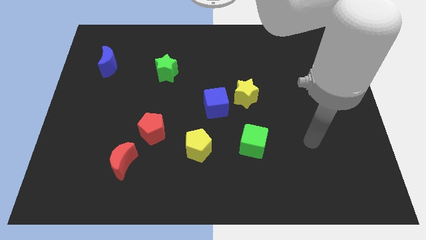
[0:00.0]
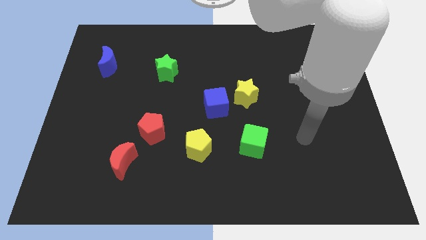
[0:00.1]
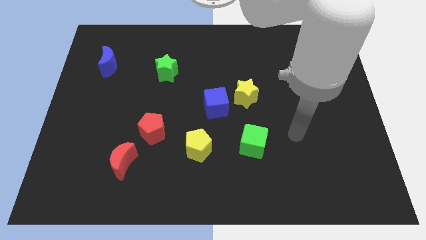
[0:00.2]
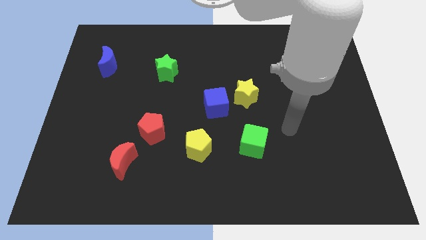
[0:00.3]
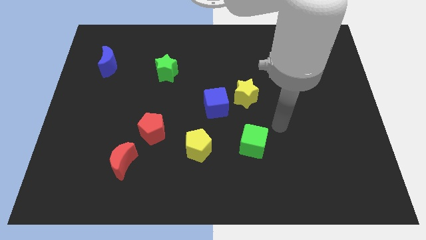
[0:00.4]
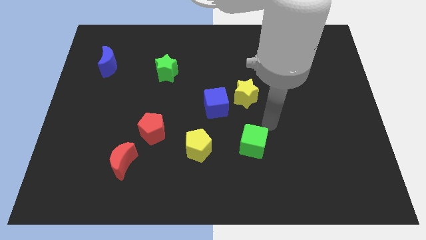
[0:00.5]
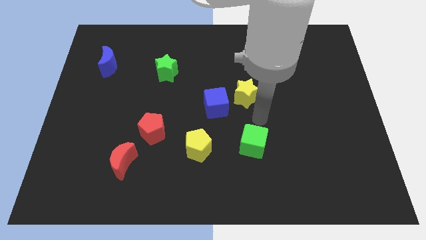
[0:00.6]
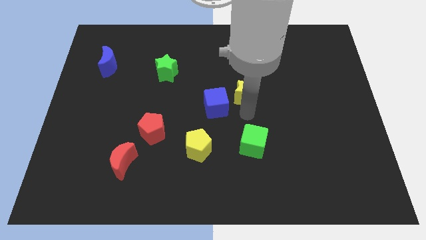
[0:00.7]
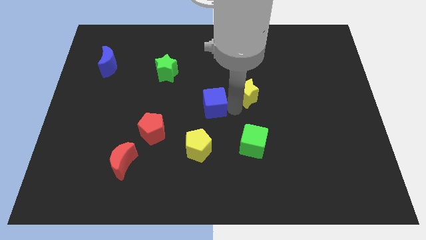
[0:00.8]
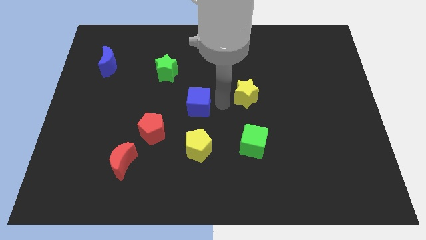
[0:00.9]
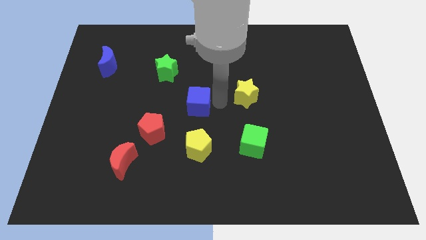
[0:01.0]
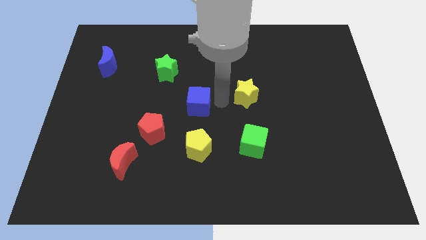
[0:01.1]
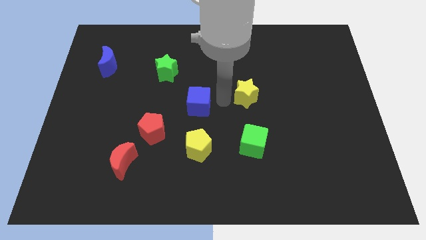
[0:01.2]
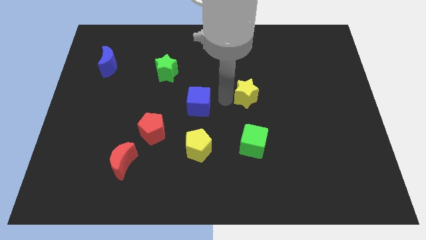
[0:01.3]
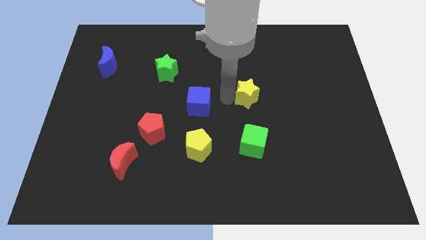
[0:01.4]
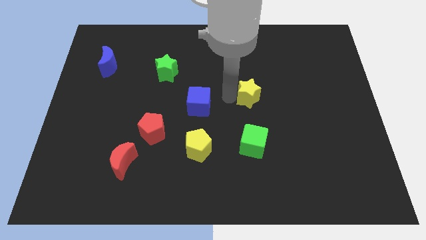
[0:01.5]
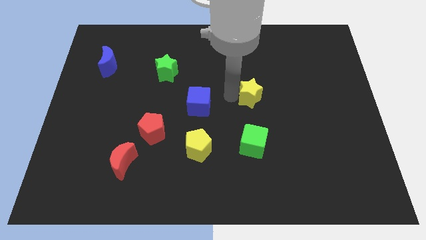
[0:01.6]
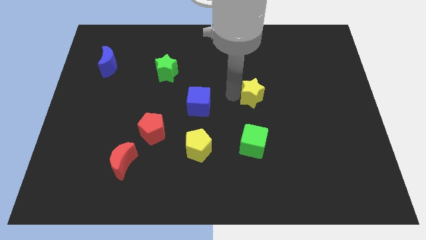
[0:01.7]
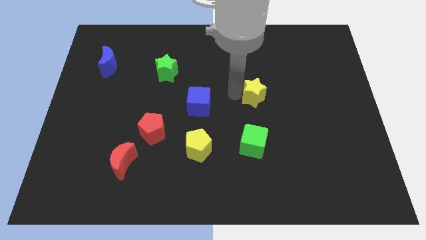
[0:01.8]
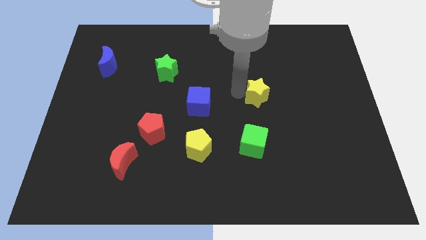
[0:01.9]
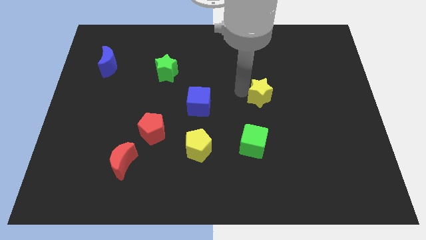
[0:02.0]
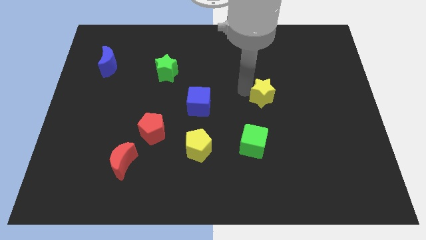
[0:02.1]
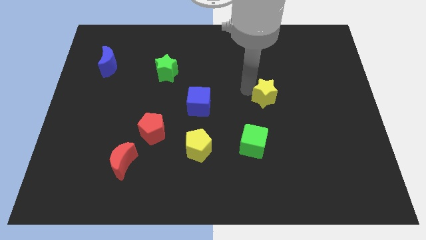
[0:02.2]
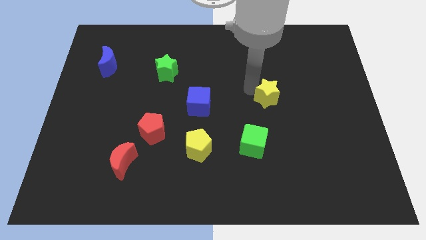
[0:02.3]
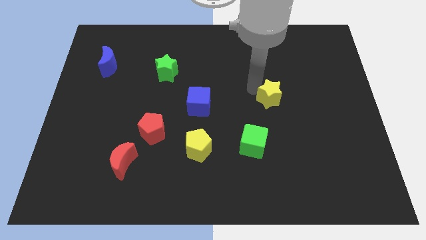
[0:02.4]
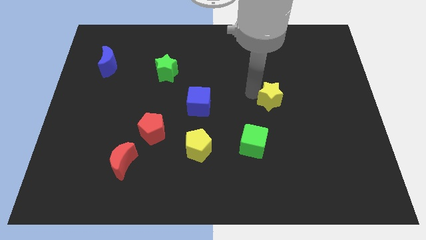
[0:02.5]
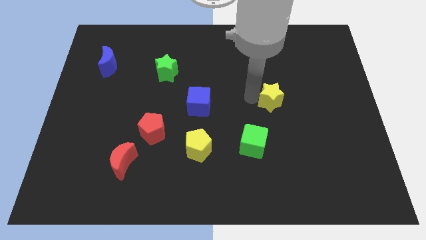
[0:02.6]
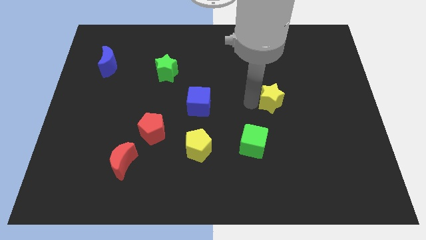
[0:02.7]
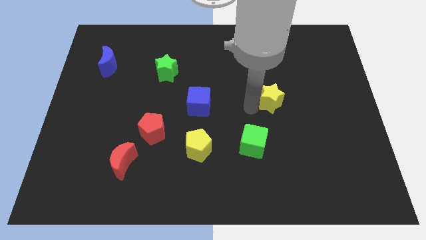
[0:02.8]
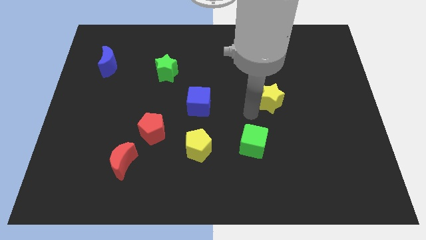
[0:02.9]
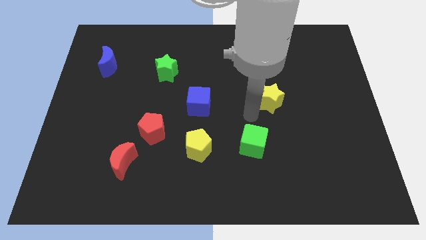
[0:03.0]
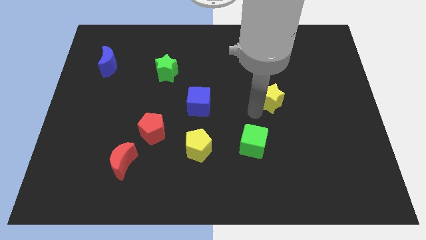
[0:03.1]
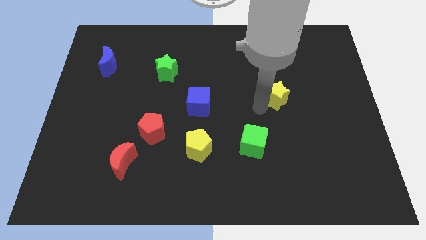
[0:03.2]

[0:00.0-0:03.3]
push the yellow star a little bit right

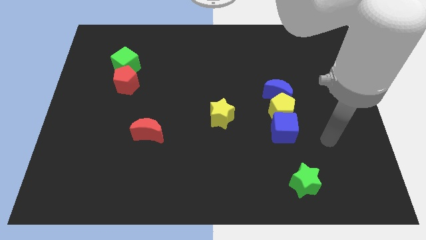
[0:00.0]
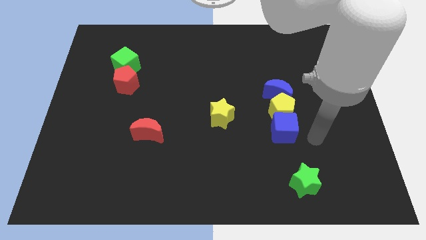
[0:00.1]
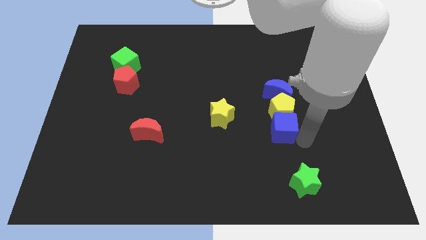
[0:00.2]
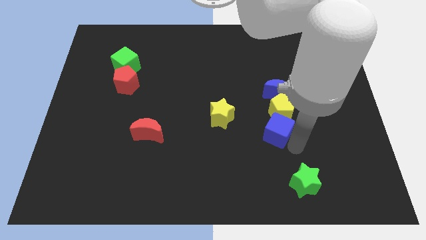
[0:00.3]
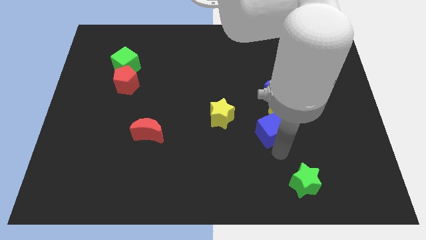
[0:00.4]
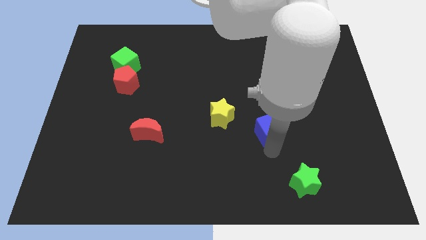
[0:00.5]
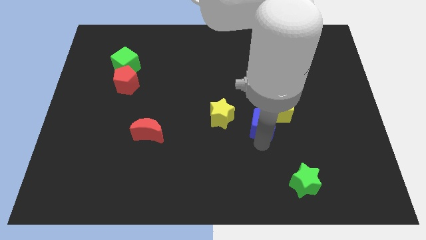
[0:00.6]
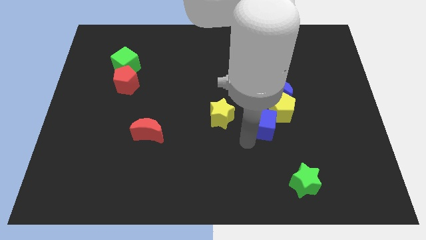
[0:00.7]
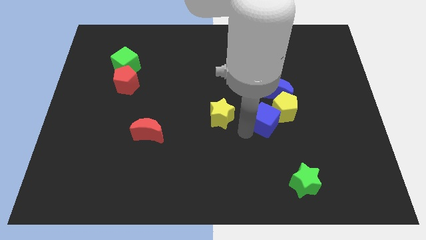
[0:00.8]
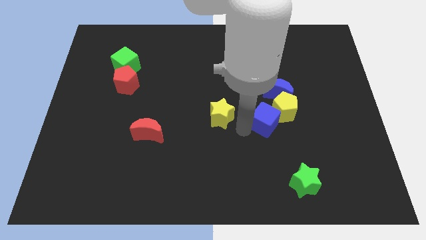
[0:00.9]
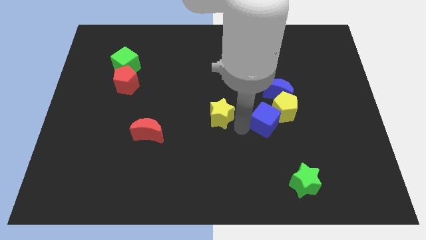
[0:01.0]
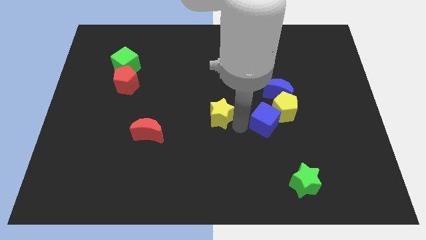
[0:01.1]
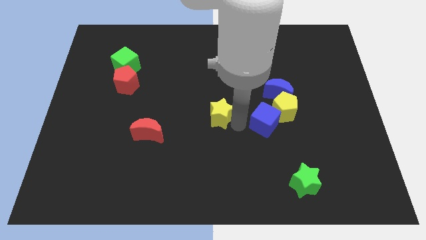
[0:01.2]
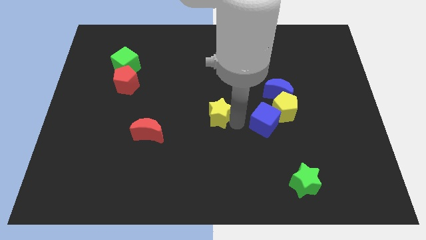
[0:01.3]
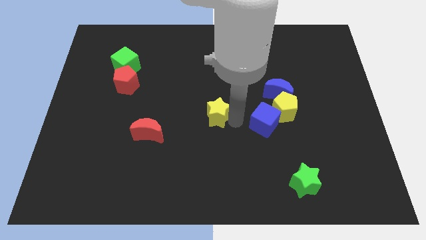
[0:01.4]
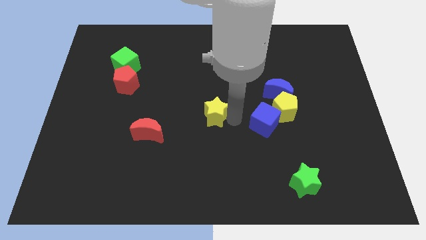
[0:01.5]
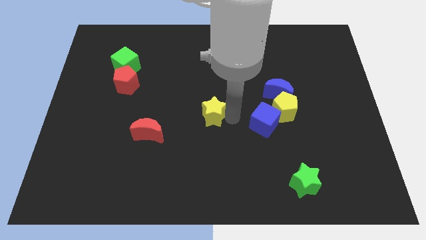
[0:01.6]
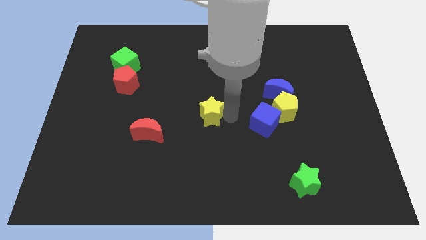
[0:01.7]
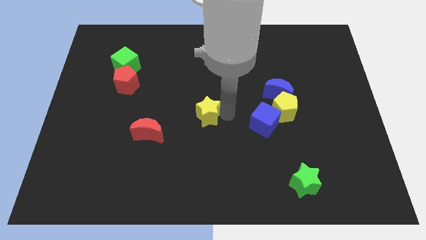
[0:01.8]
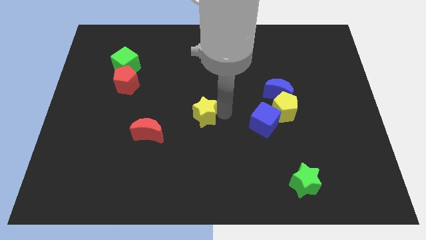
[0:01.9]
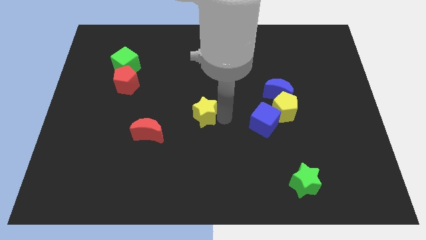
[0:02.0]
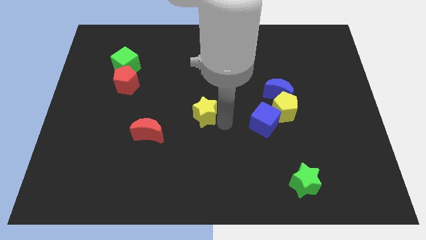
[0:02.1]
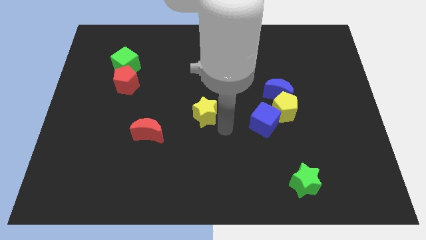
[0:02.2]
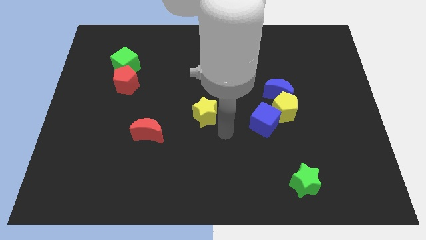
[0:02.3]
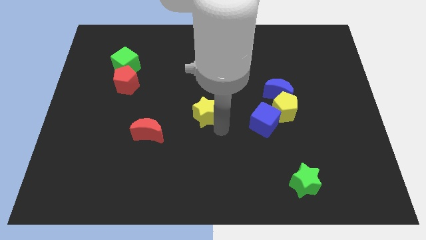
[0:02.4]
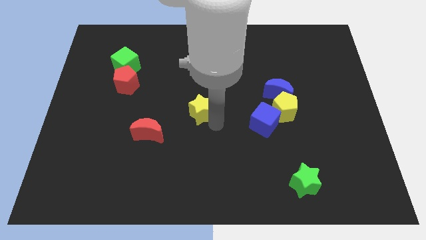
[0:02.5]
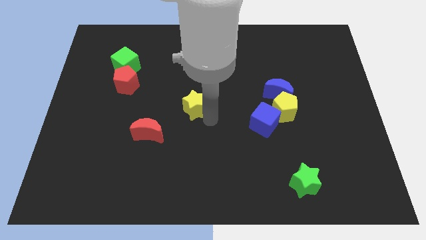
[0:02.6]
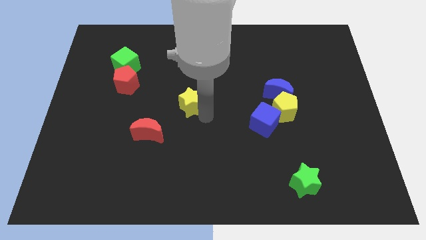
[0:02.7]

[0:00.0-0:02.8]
slightly slide the yellow star upwards and to the left

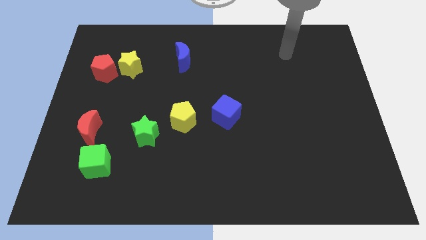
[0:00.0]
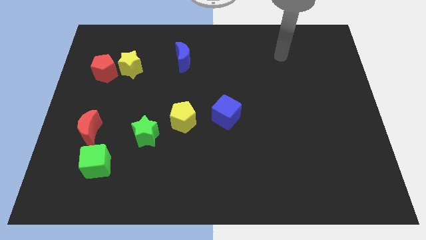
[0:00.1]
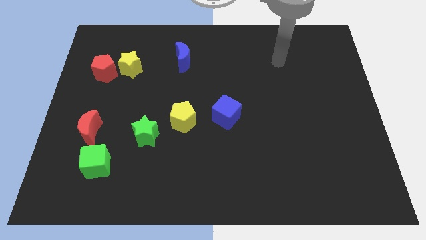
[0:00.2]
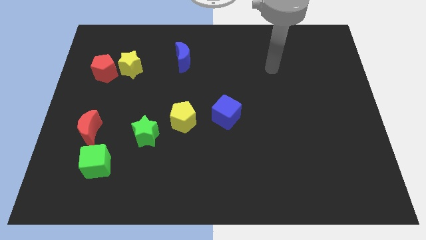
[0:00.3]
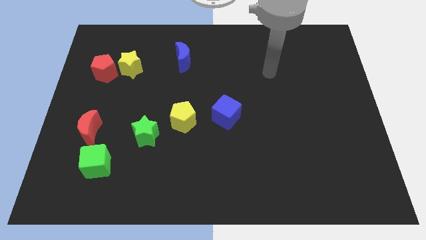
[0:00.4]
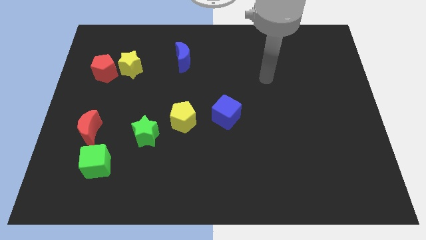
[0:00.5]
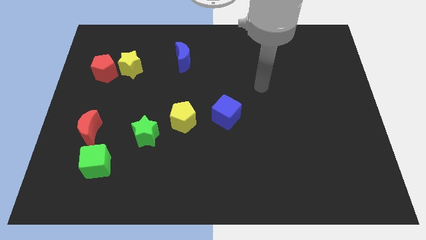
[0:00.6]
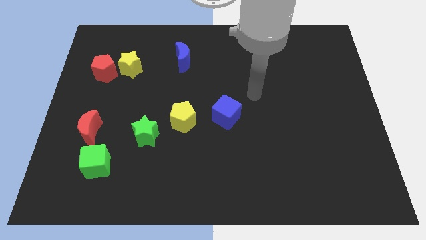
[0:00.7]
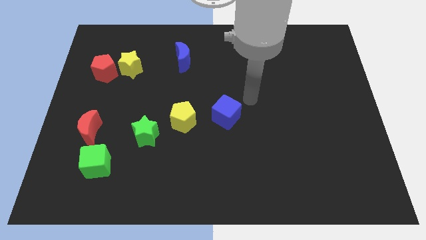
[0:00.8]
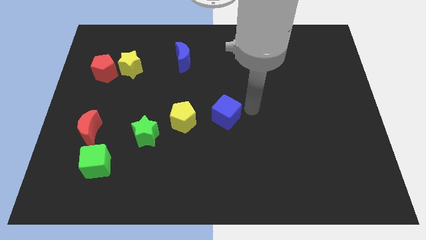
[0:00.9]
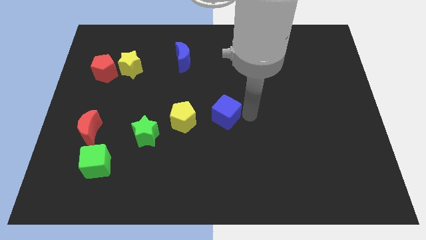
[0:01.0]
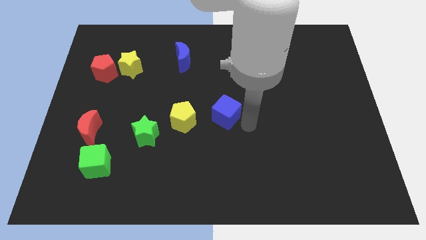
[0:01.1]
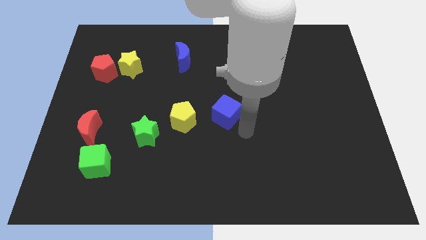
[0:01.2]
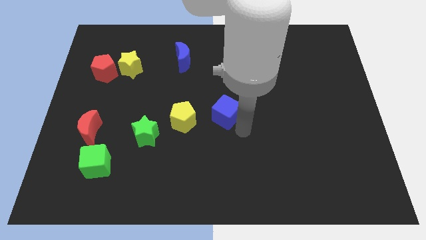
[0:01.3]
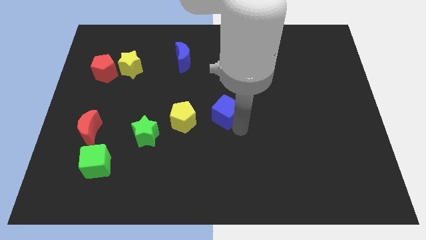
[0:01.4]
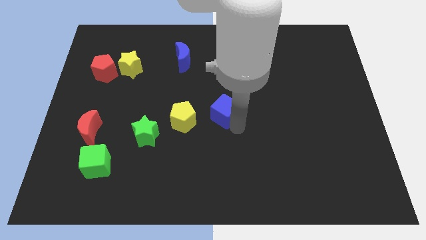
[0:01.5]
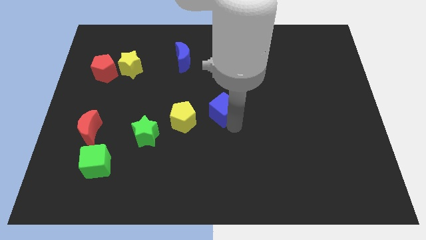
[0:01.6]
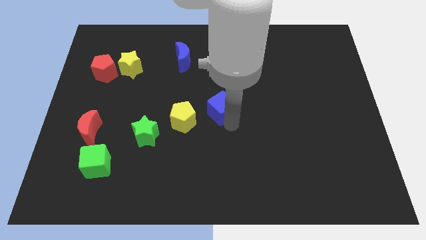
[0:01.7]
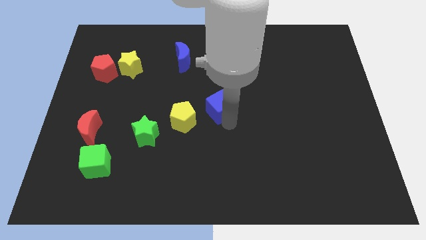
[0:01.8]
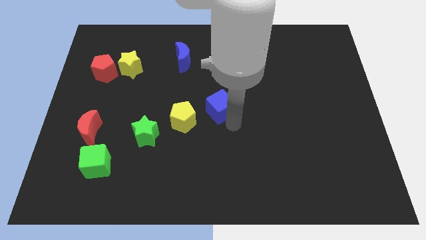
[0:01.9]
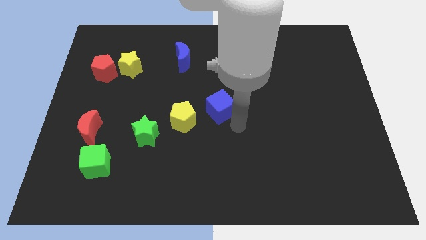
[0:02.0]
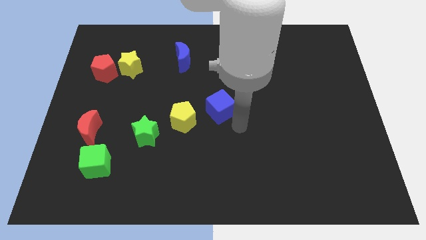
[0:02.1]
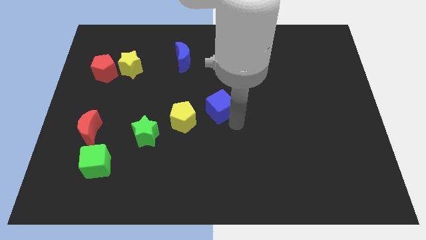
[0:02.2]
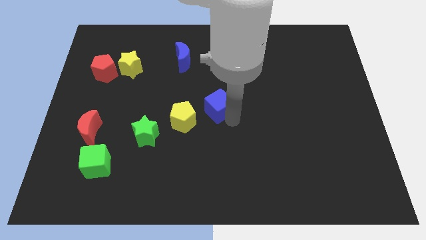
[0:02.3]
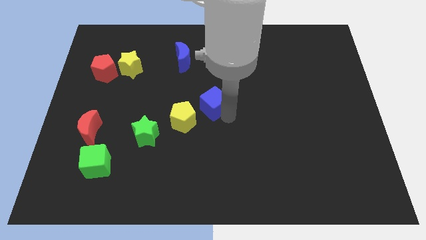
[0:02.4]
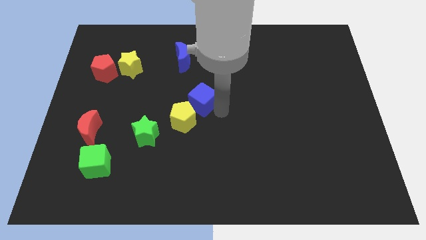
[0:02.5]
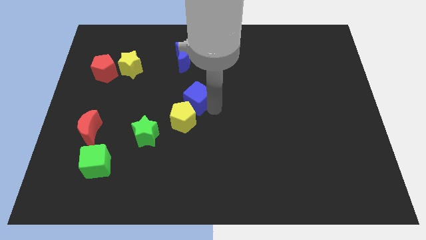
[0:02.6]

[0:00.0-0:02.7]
move the blue cube upwards and left diagonally a little
